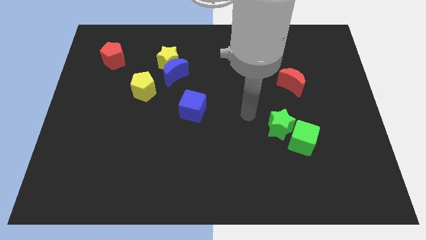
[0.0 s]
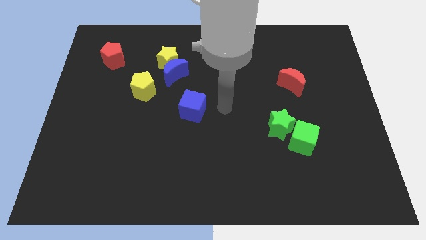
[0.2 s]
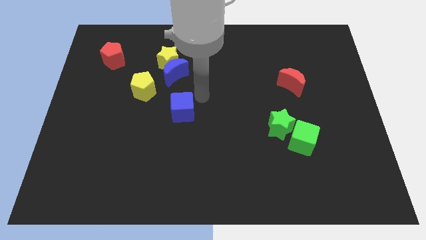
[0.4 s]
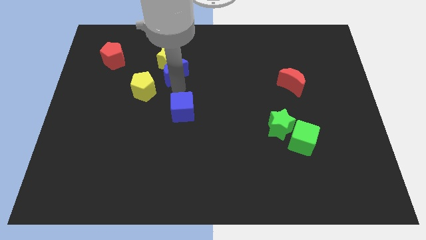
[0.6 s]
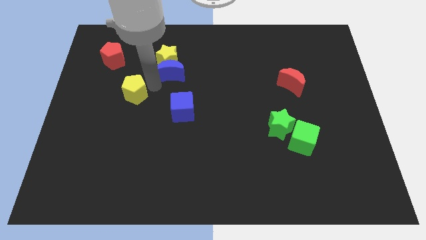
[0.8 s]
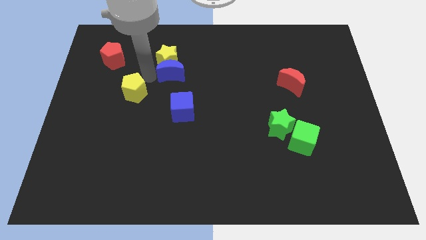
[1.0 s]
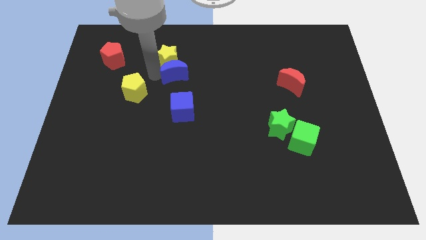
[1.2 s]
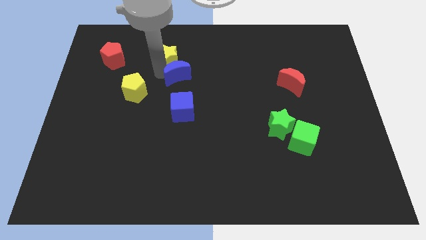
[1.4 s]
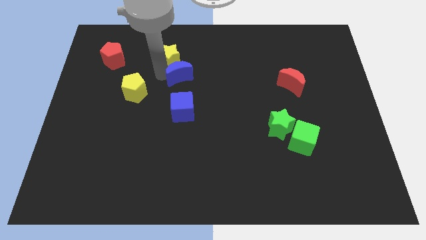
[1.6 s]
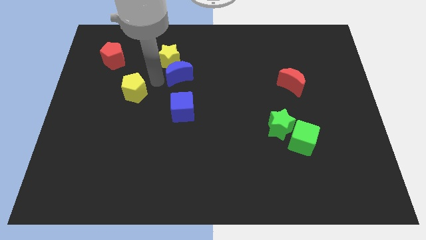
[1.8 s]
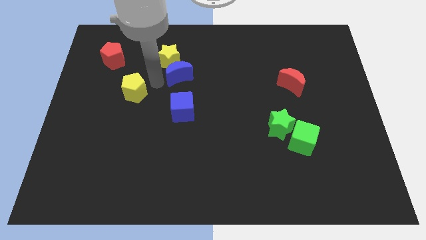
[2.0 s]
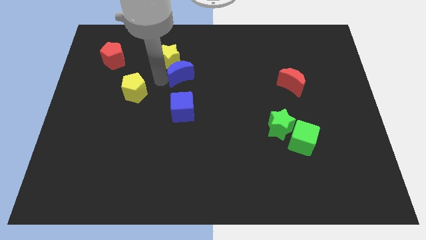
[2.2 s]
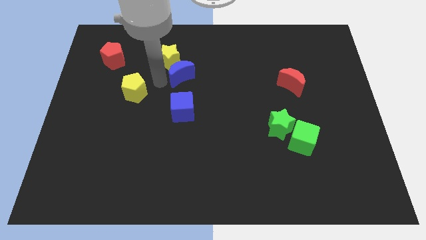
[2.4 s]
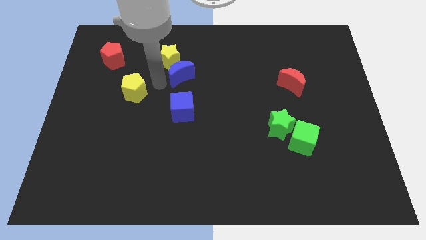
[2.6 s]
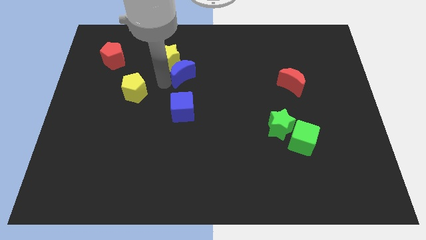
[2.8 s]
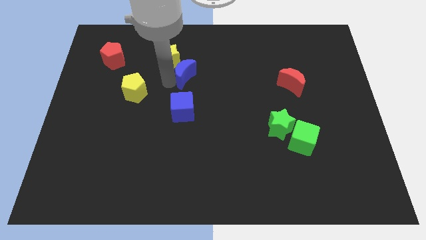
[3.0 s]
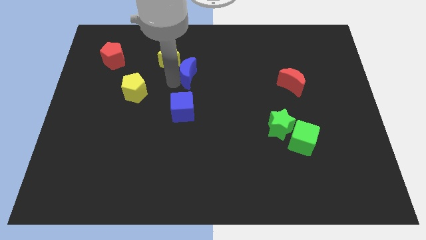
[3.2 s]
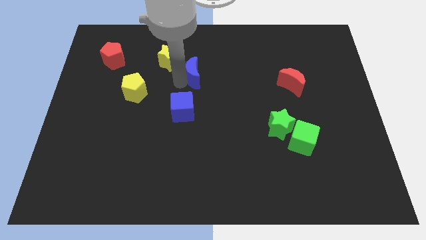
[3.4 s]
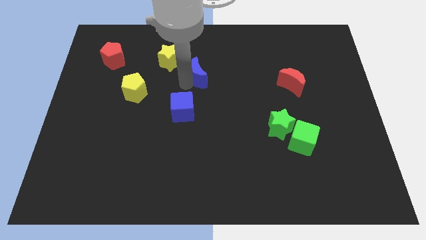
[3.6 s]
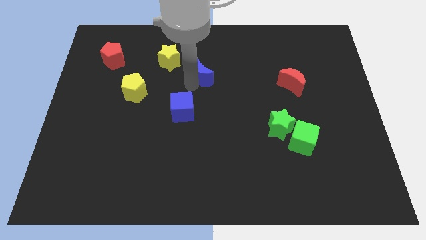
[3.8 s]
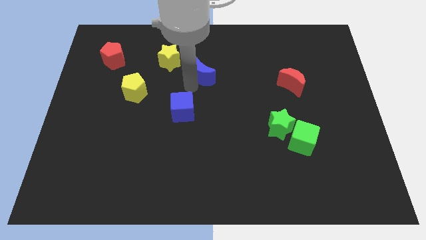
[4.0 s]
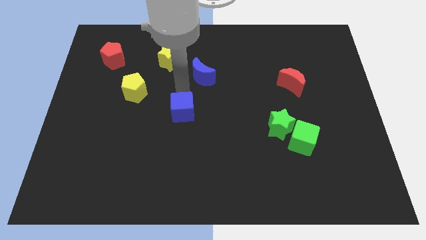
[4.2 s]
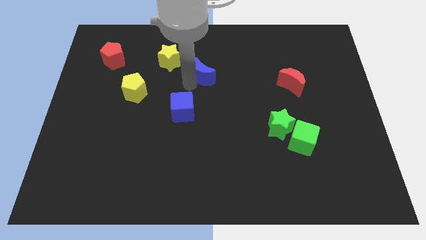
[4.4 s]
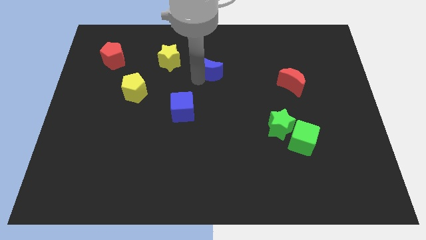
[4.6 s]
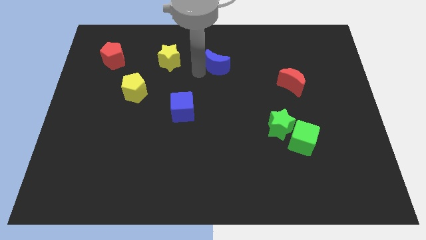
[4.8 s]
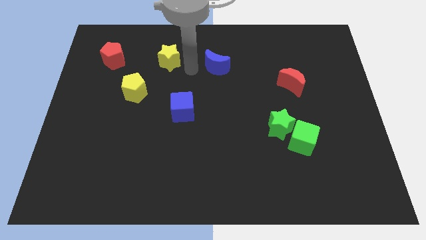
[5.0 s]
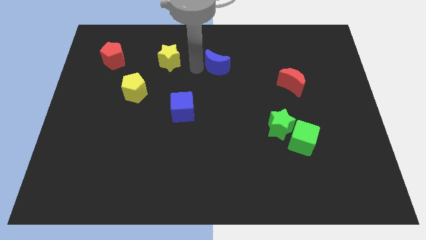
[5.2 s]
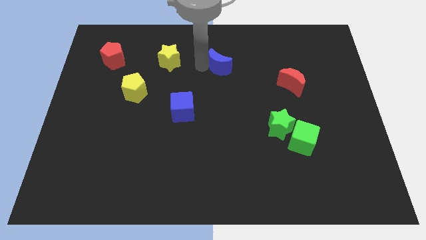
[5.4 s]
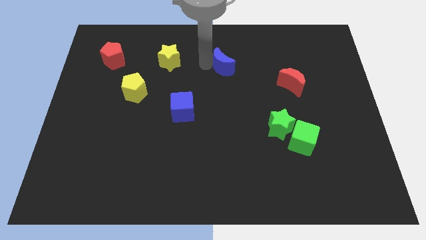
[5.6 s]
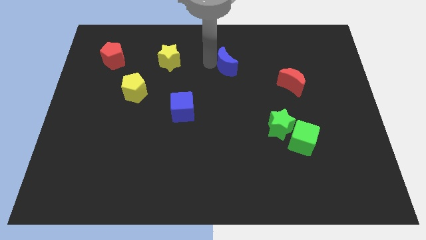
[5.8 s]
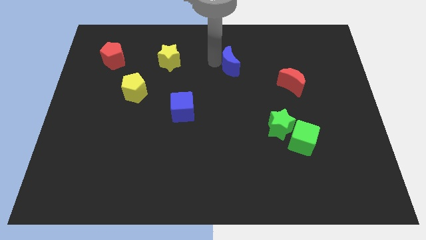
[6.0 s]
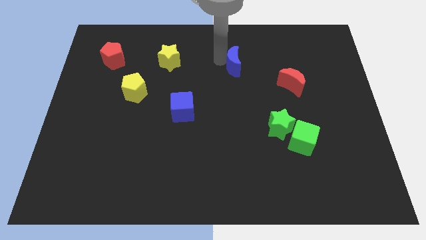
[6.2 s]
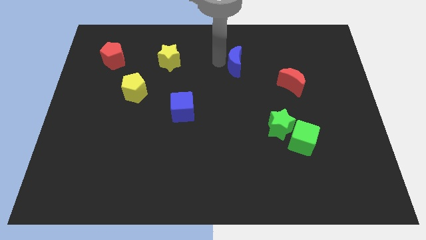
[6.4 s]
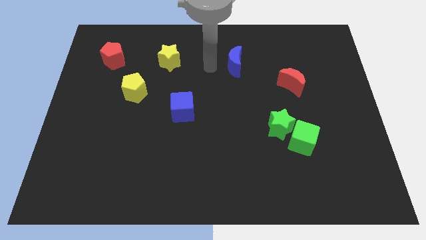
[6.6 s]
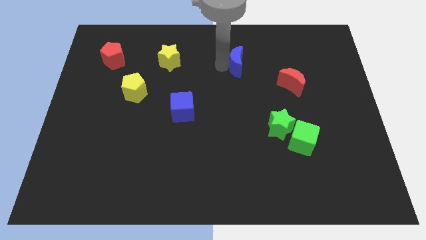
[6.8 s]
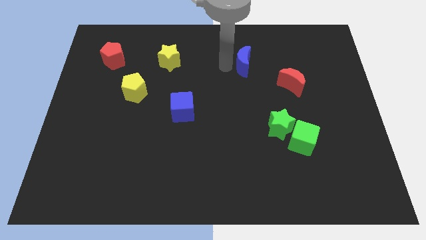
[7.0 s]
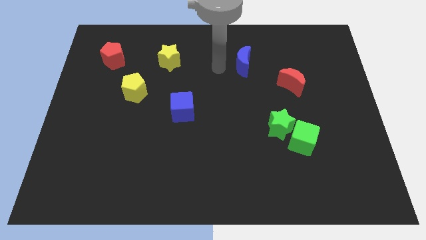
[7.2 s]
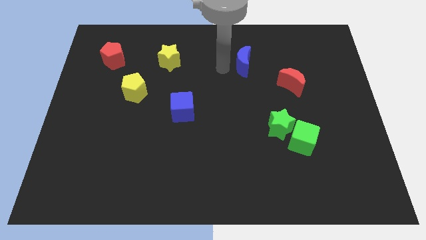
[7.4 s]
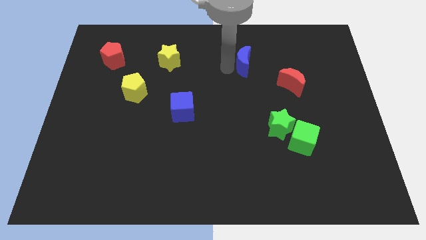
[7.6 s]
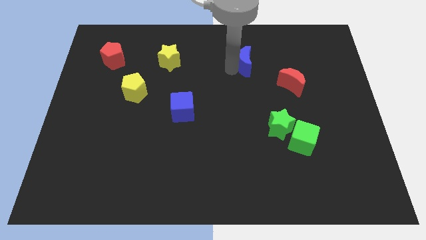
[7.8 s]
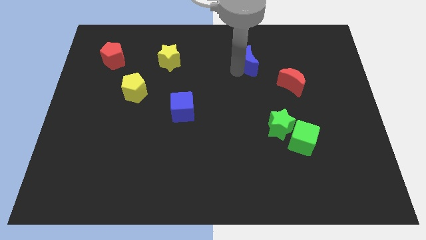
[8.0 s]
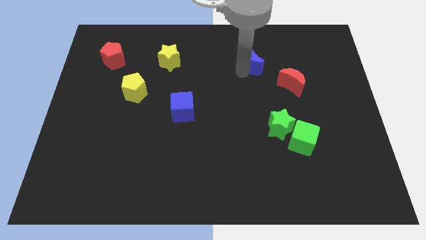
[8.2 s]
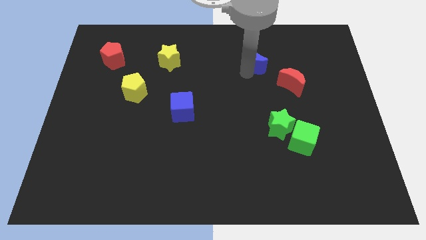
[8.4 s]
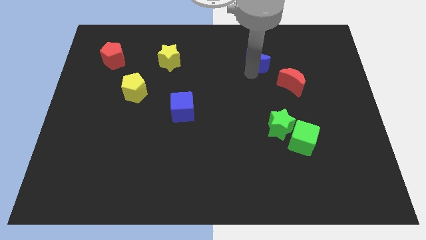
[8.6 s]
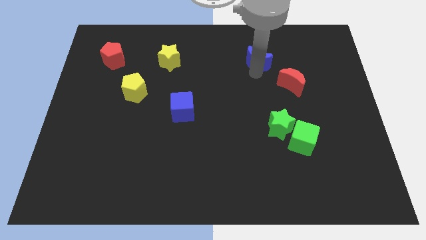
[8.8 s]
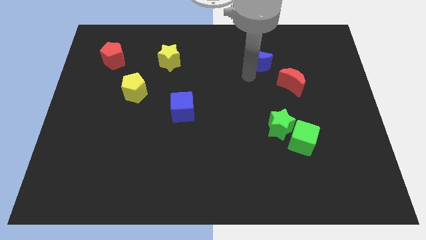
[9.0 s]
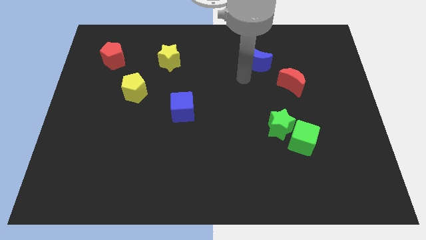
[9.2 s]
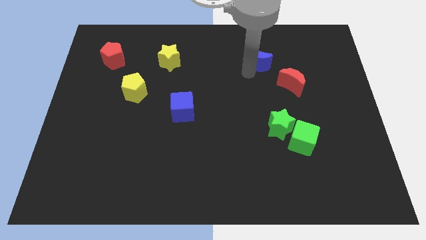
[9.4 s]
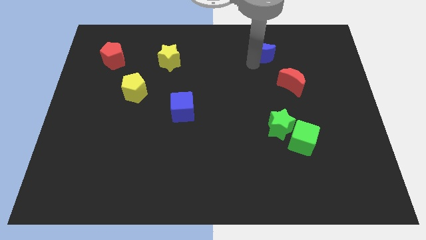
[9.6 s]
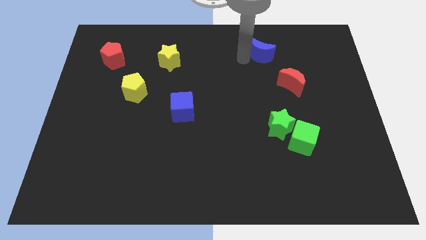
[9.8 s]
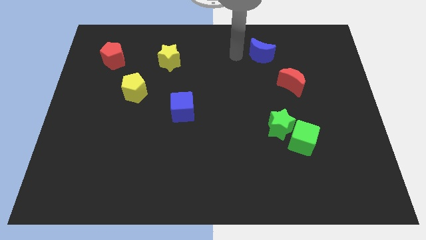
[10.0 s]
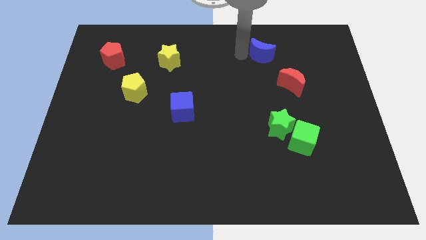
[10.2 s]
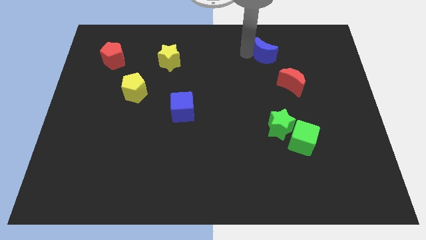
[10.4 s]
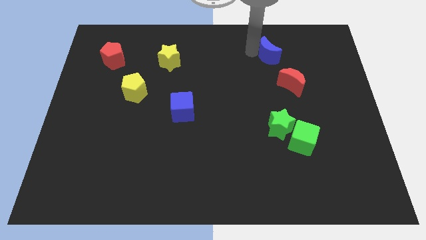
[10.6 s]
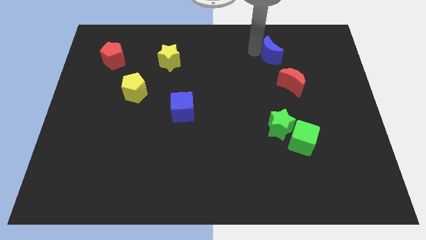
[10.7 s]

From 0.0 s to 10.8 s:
put the blue moon to the top of the red moon

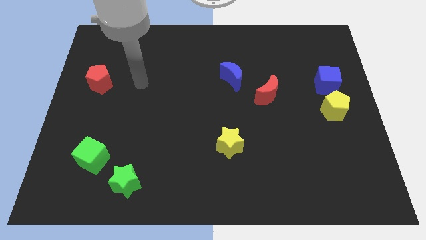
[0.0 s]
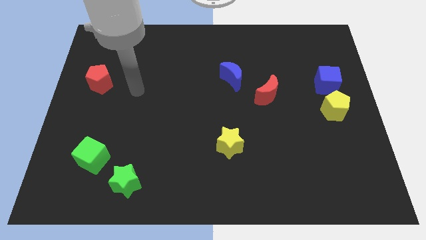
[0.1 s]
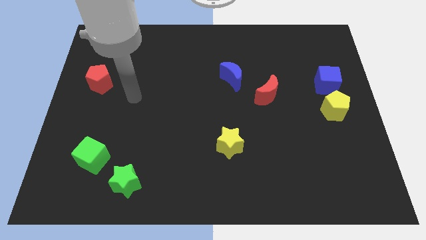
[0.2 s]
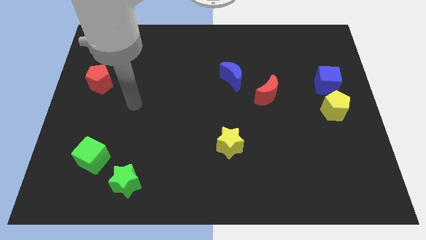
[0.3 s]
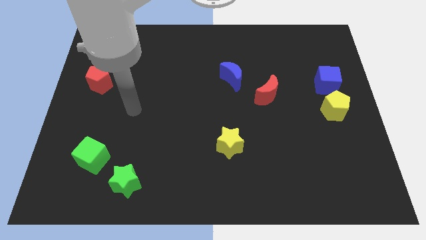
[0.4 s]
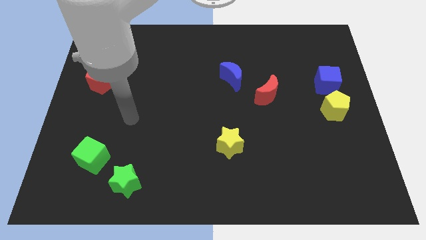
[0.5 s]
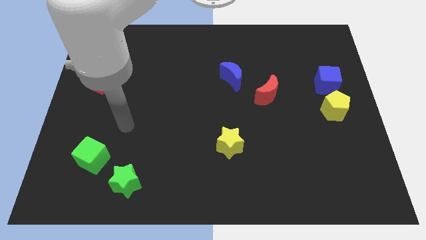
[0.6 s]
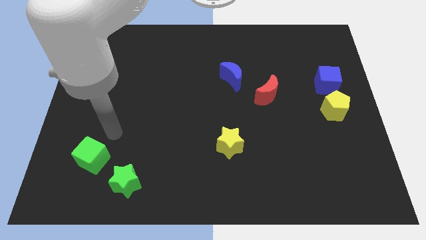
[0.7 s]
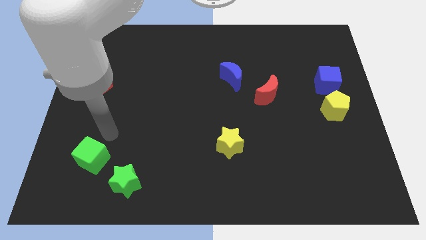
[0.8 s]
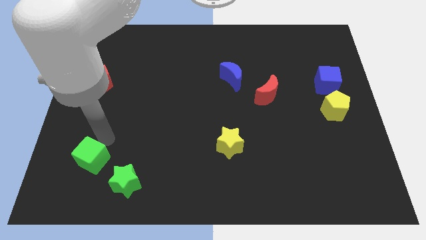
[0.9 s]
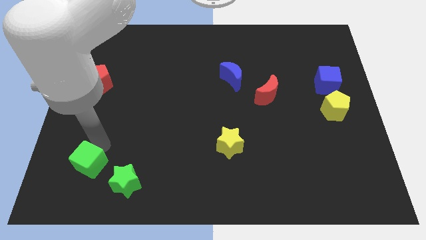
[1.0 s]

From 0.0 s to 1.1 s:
push the green cube left of the green star

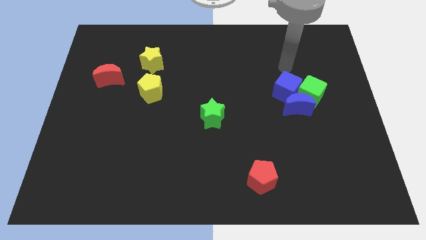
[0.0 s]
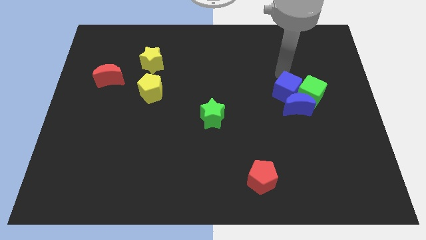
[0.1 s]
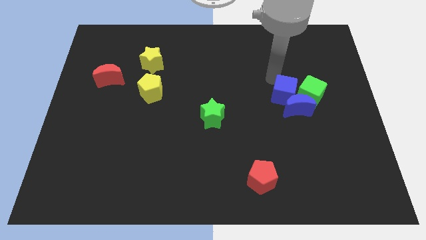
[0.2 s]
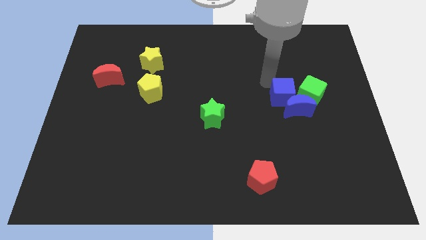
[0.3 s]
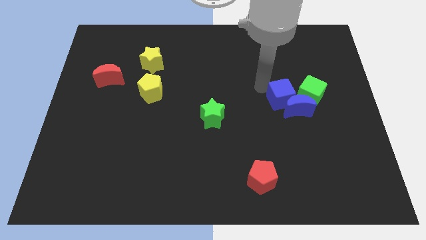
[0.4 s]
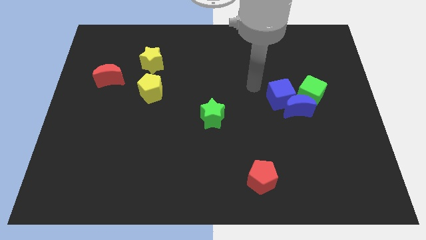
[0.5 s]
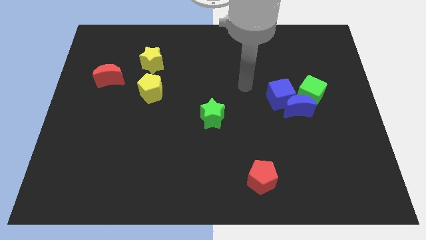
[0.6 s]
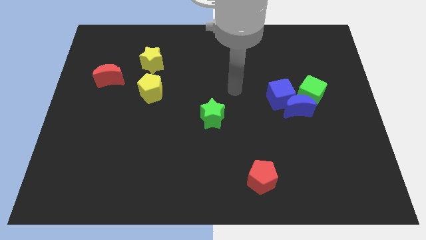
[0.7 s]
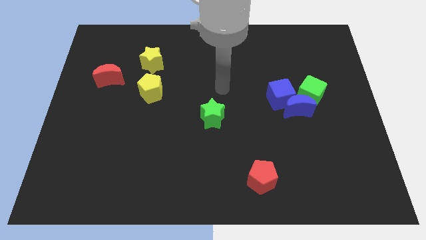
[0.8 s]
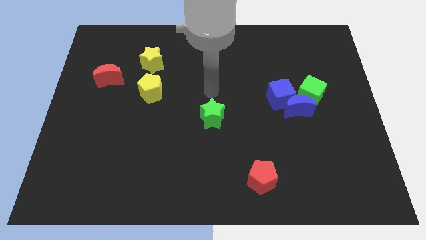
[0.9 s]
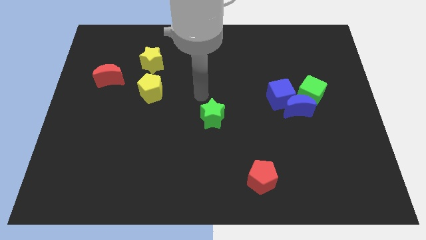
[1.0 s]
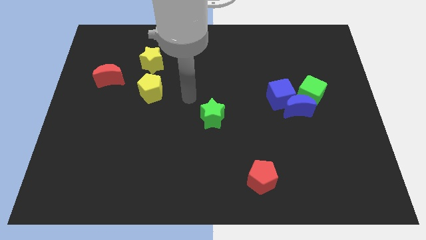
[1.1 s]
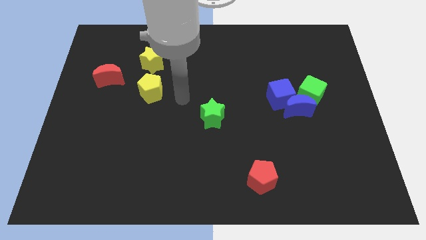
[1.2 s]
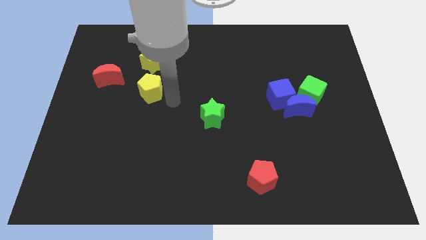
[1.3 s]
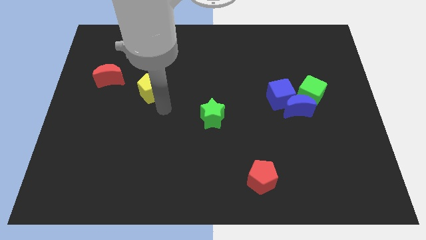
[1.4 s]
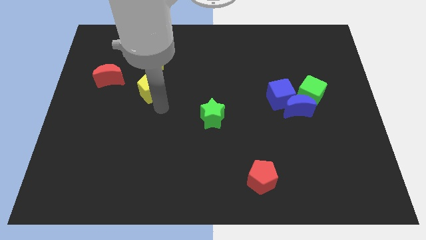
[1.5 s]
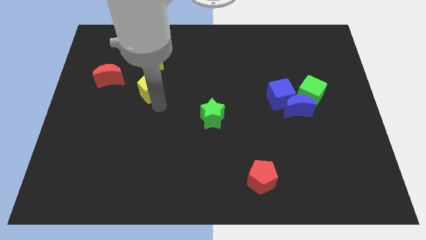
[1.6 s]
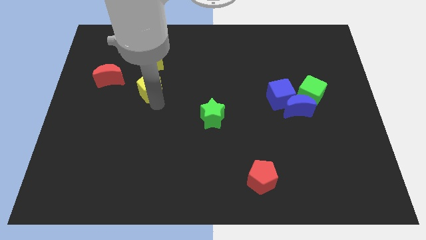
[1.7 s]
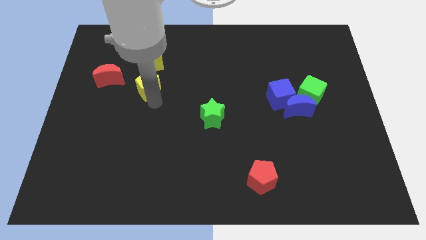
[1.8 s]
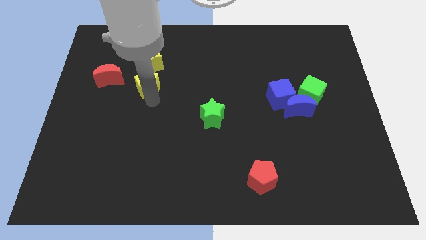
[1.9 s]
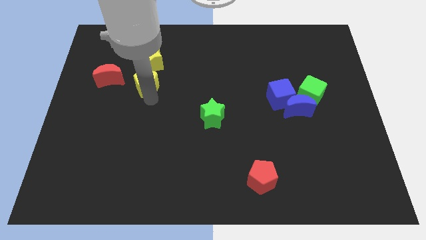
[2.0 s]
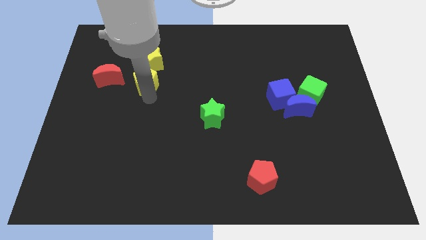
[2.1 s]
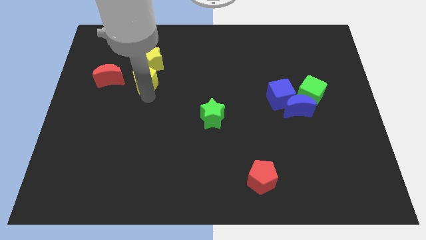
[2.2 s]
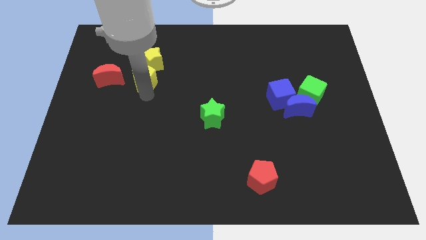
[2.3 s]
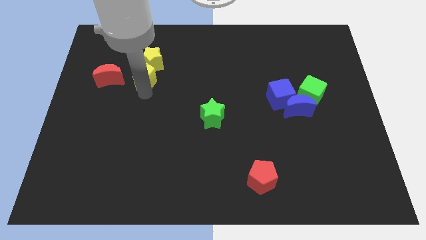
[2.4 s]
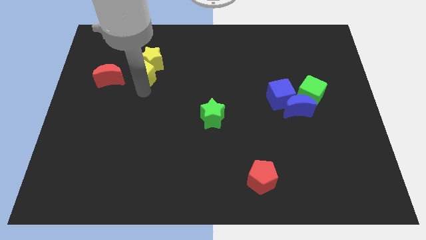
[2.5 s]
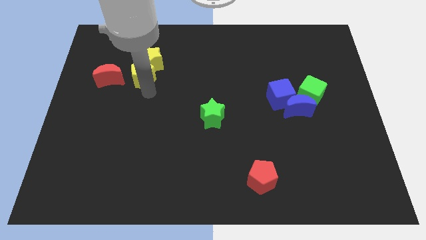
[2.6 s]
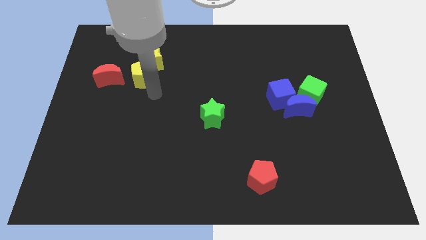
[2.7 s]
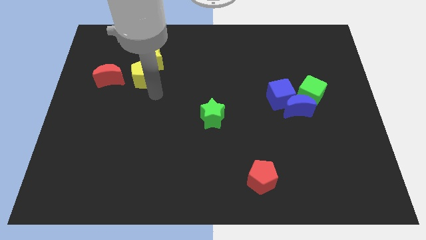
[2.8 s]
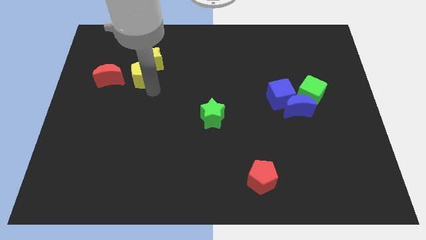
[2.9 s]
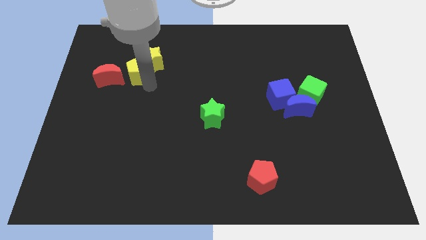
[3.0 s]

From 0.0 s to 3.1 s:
move the yellow pentagon diagonally up and to the right of the red moon
